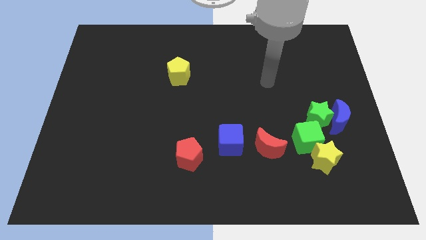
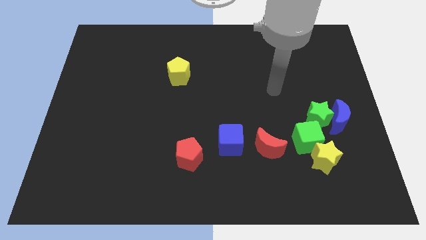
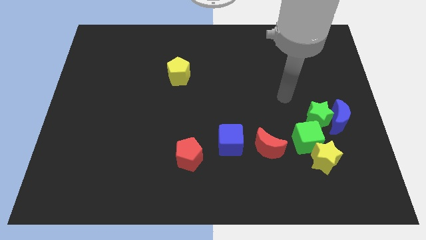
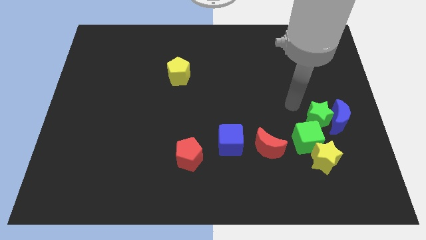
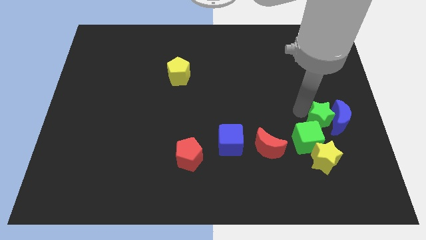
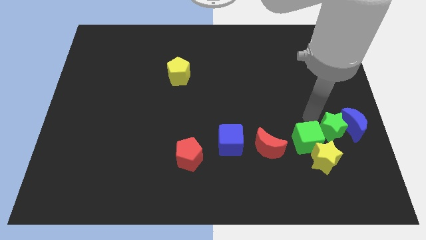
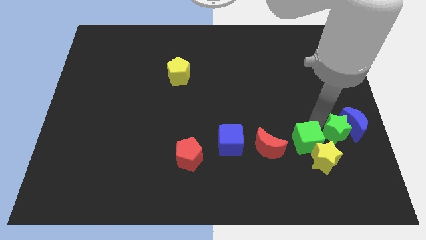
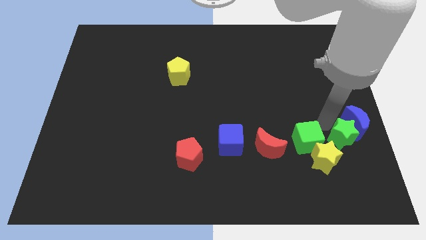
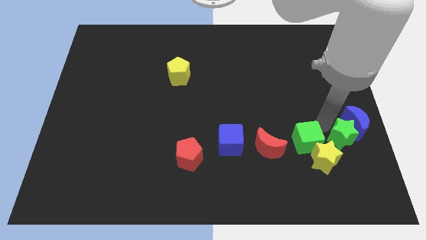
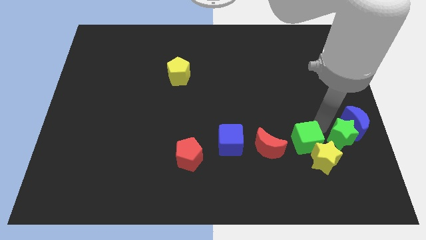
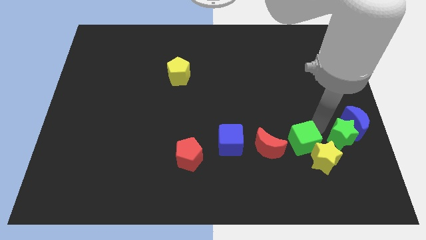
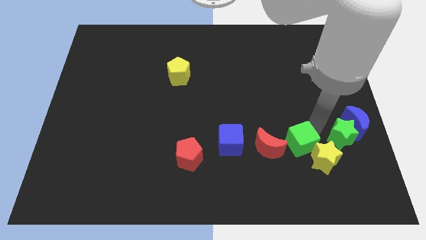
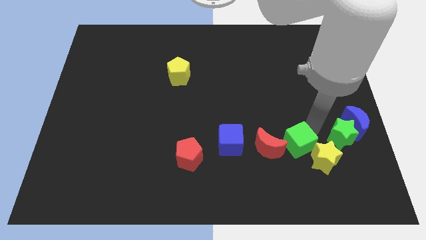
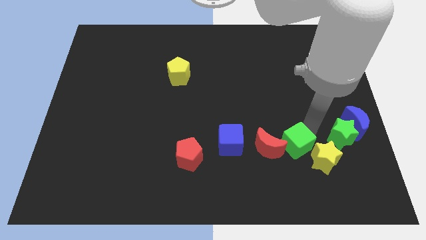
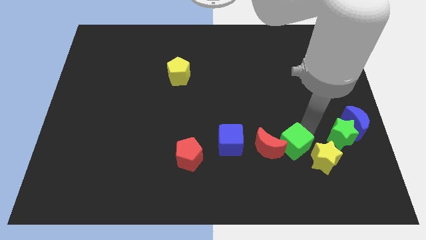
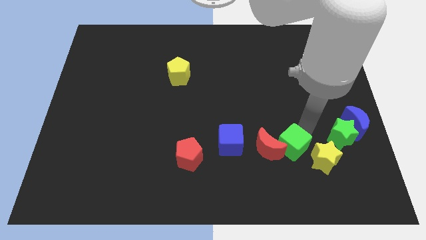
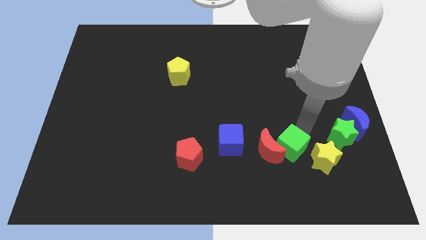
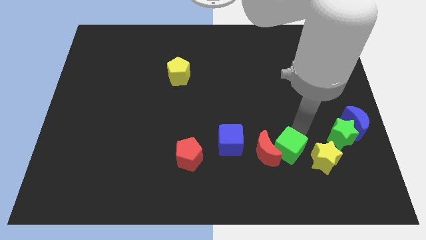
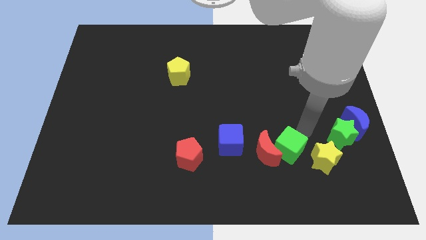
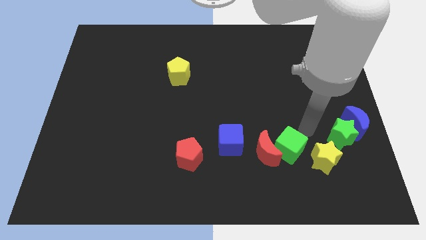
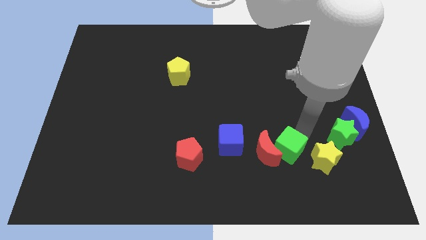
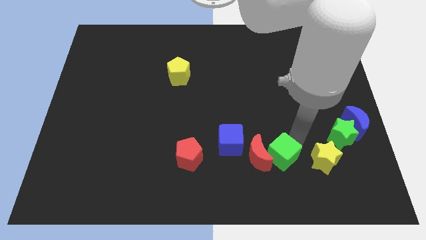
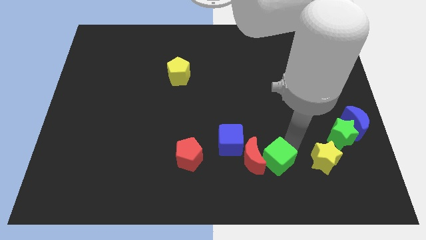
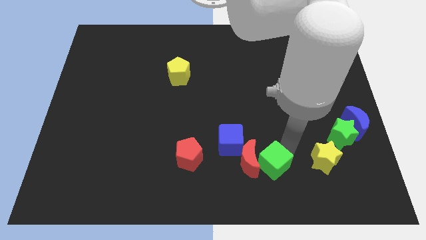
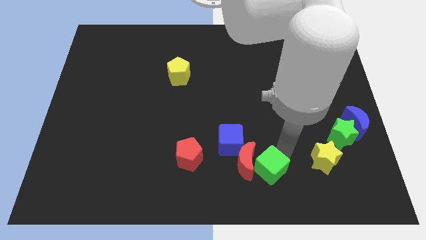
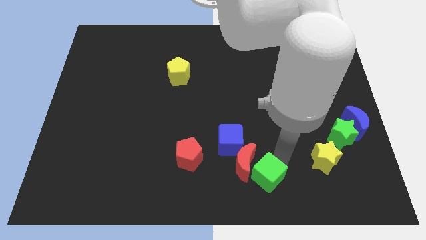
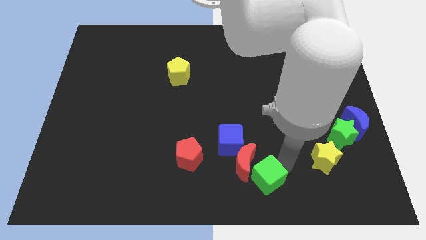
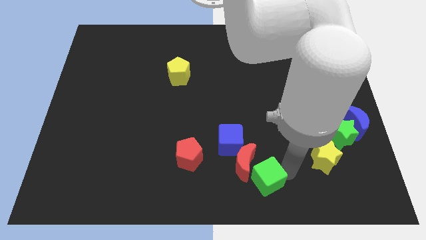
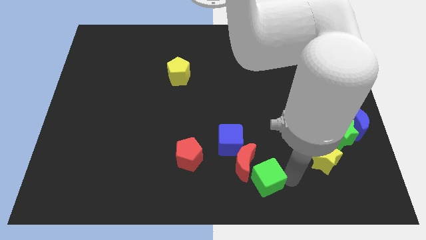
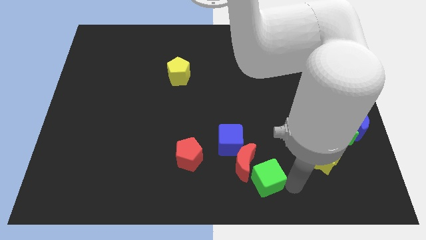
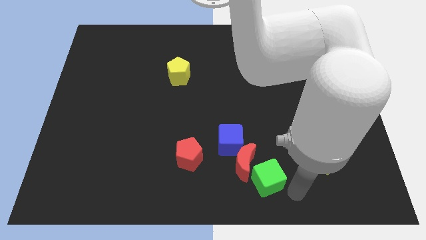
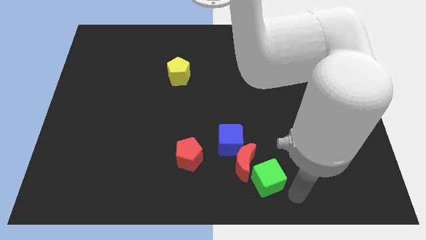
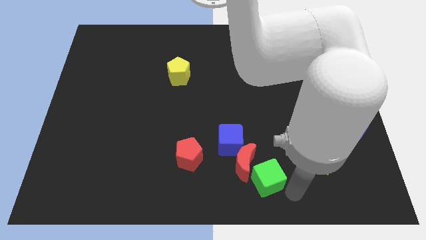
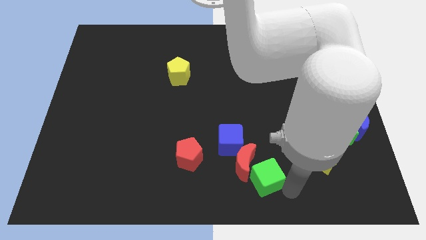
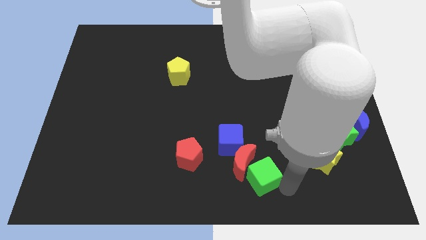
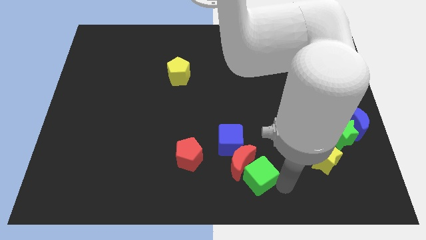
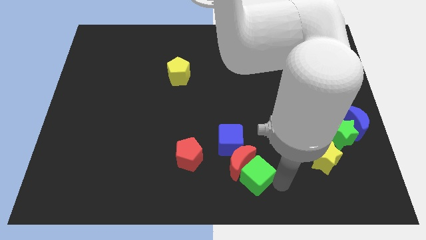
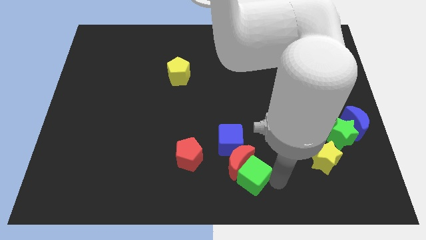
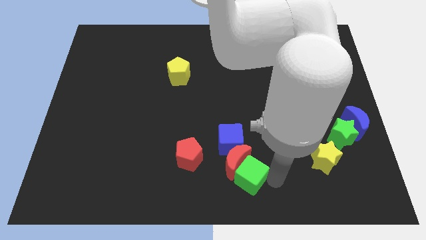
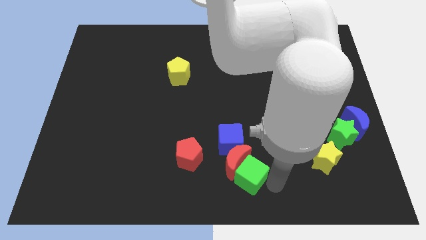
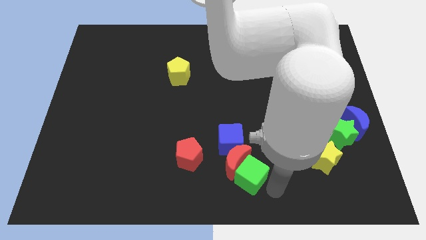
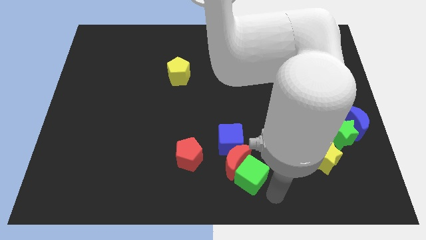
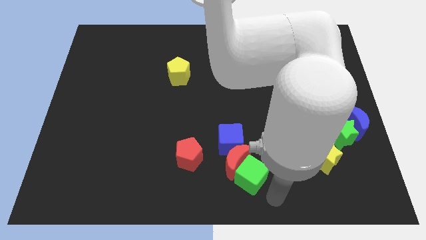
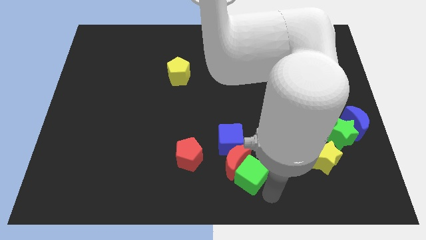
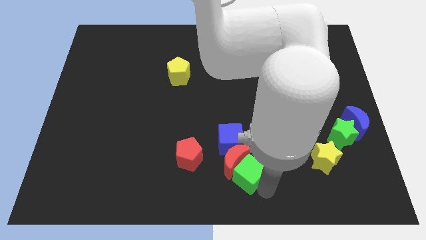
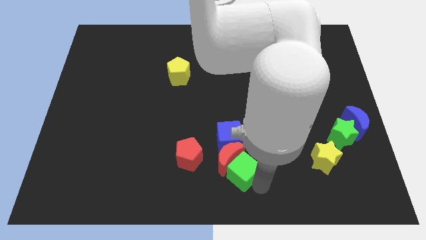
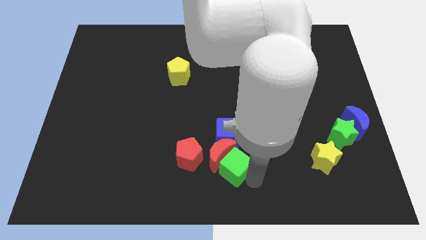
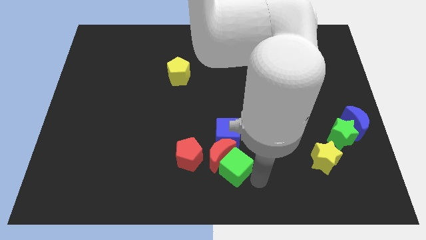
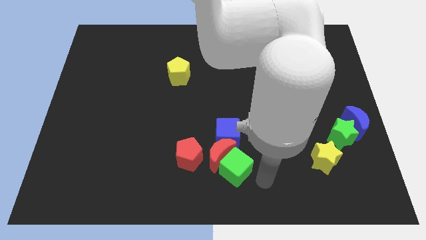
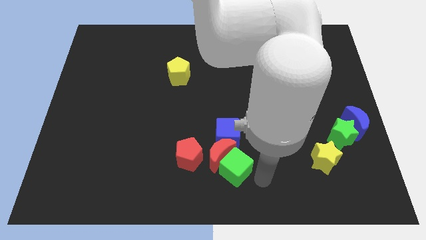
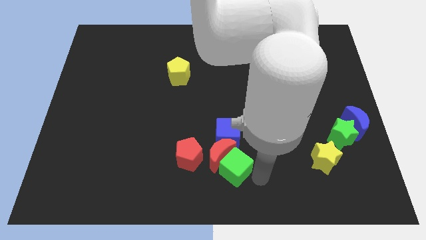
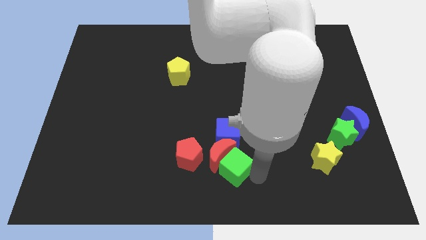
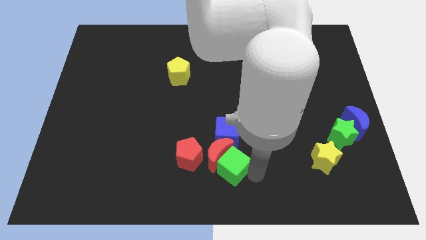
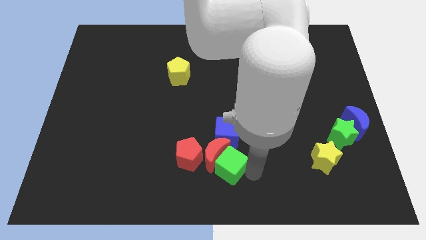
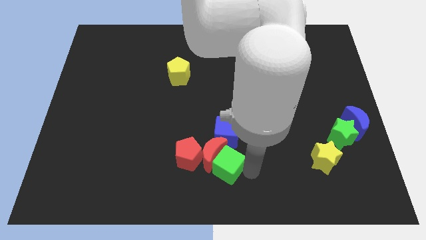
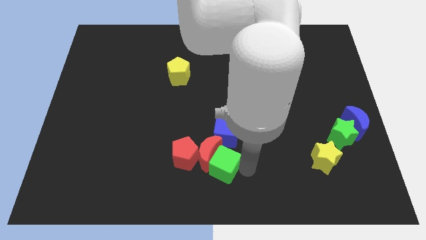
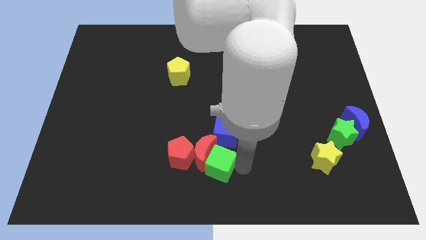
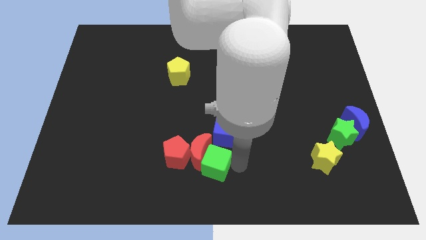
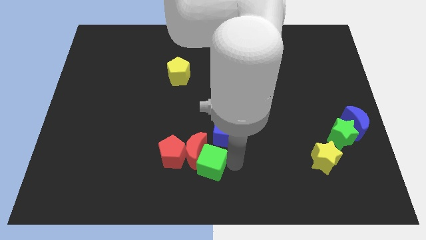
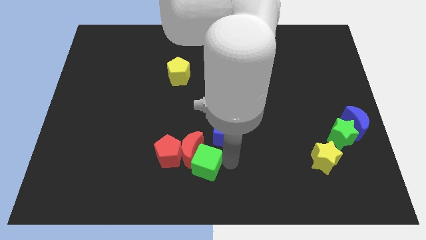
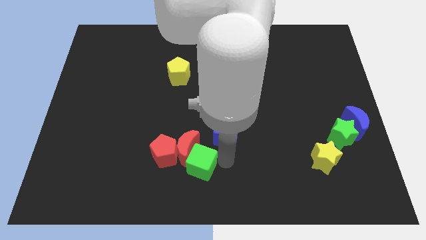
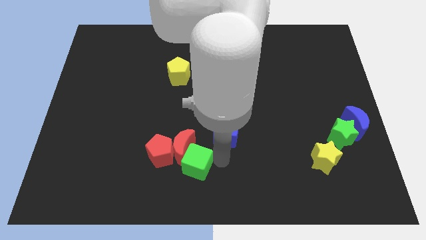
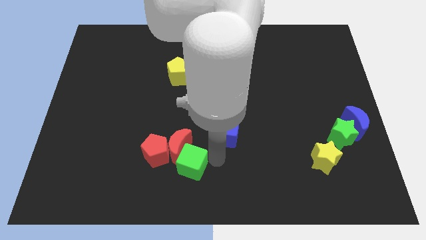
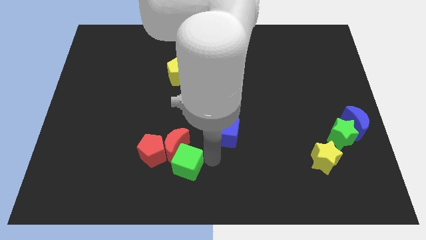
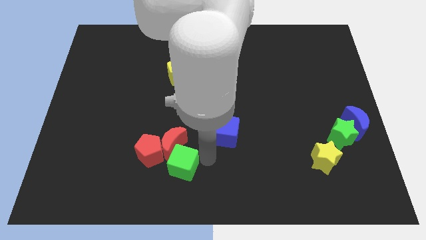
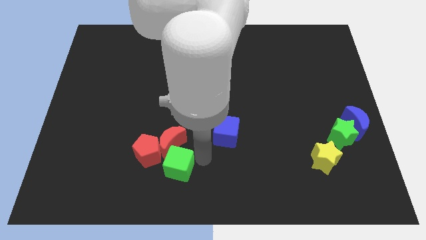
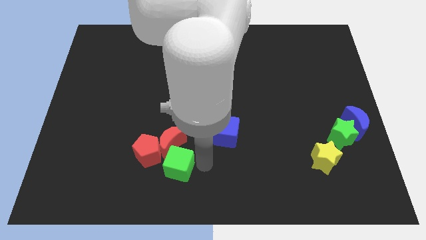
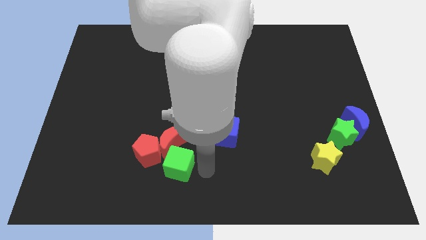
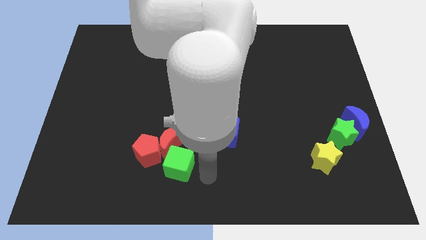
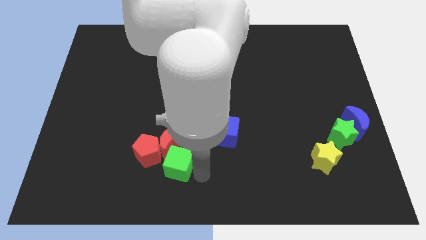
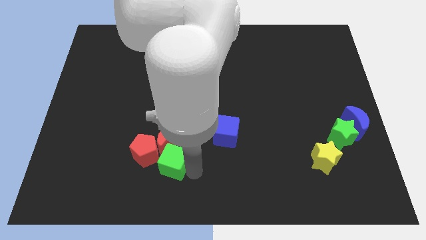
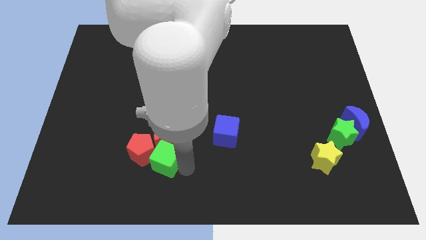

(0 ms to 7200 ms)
slide the green cube next to the red pentagon
